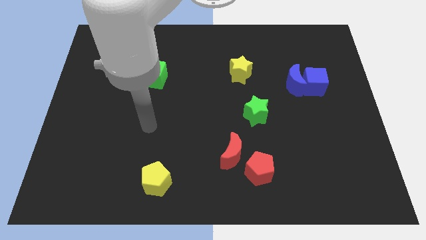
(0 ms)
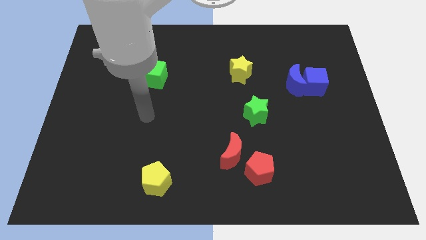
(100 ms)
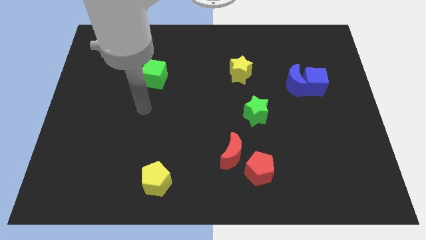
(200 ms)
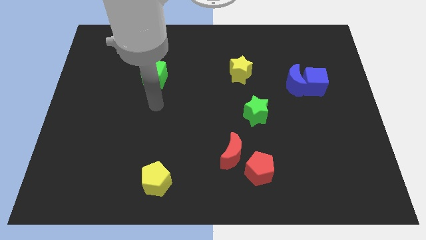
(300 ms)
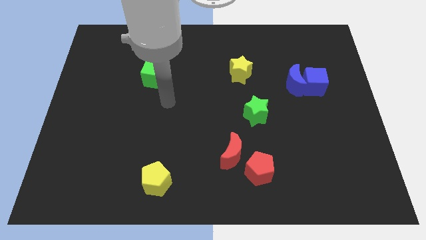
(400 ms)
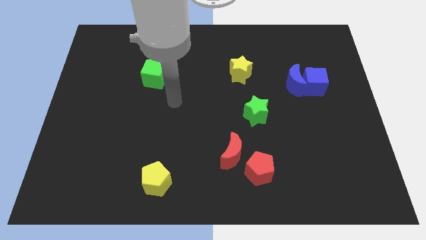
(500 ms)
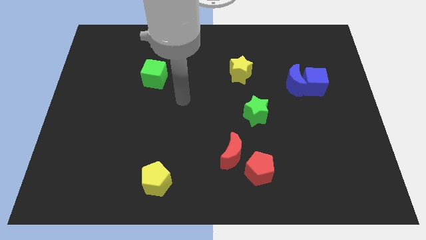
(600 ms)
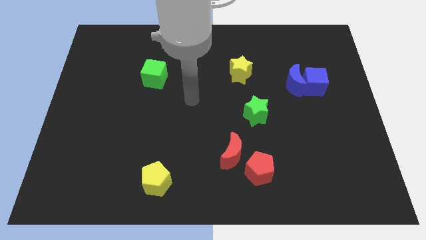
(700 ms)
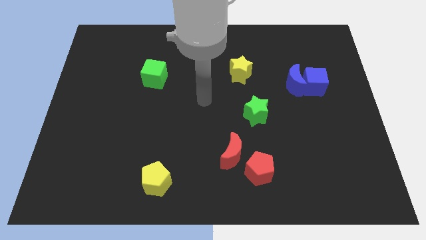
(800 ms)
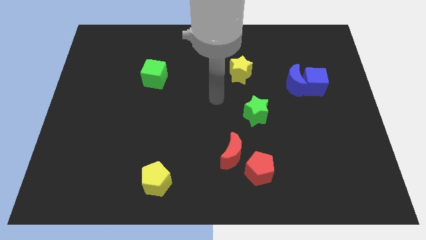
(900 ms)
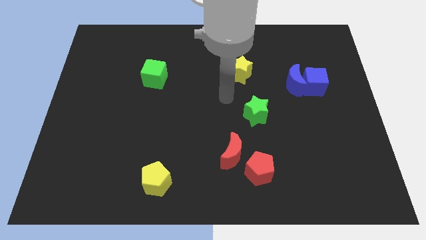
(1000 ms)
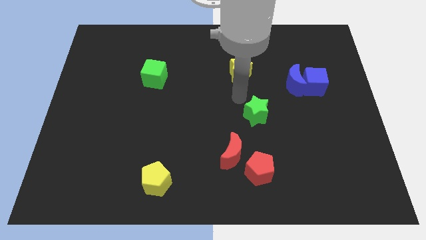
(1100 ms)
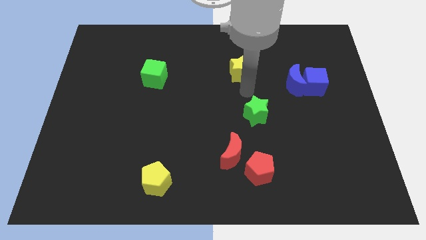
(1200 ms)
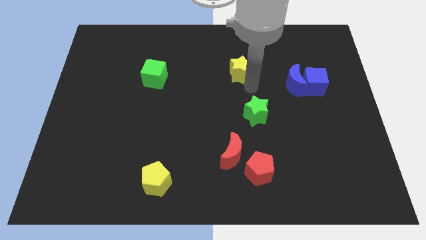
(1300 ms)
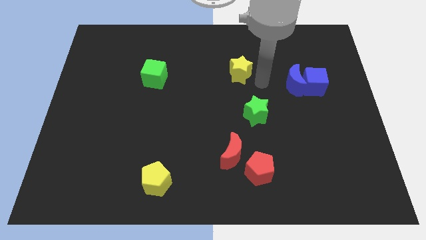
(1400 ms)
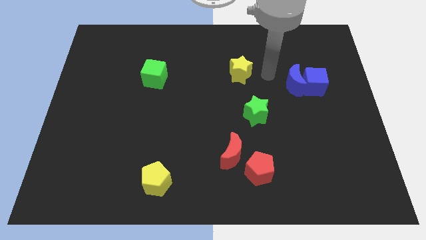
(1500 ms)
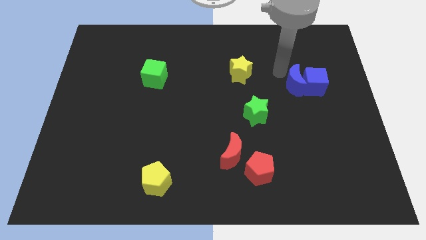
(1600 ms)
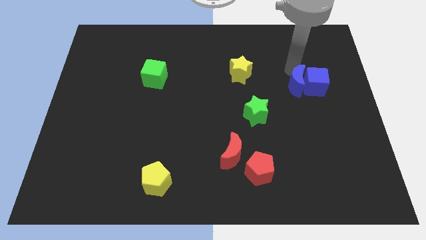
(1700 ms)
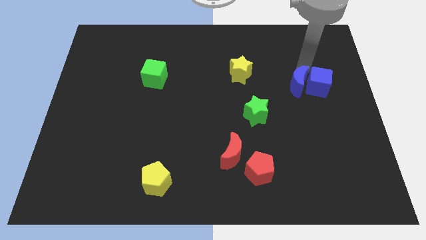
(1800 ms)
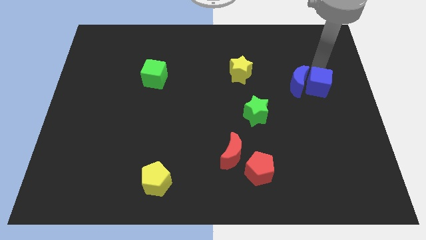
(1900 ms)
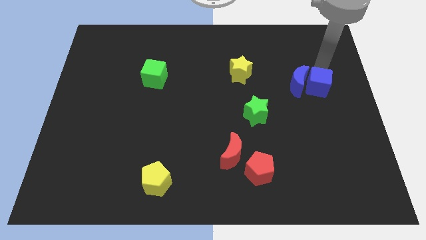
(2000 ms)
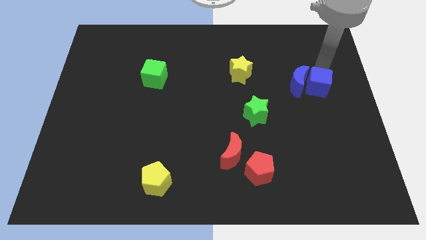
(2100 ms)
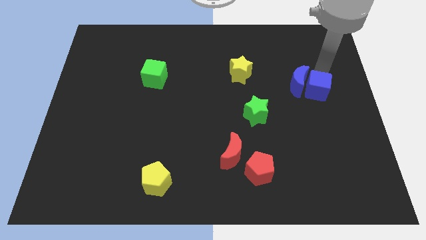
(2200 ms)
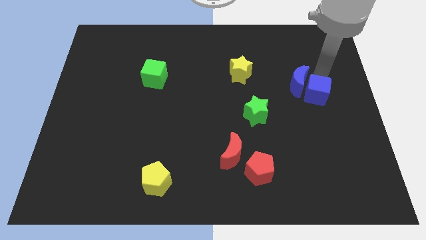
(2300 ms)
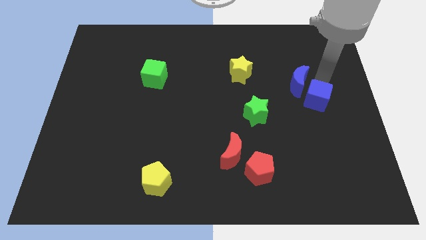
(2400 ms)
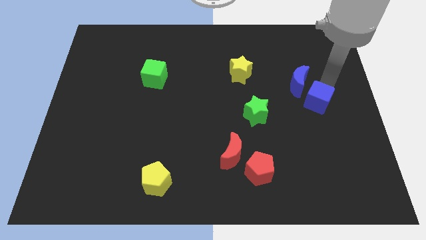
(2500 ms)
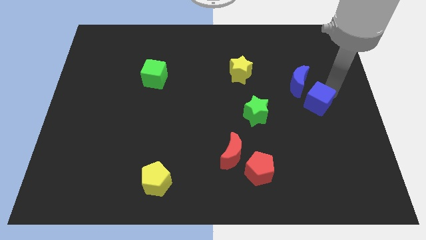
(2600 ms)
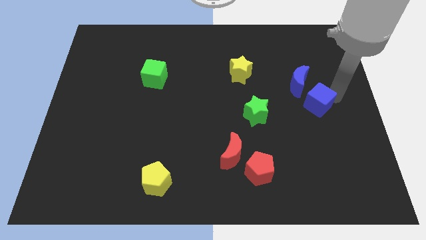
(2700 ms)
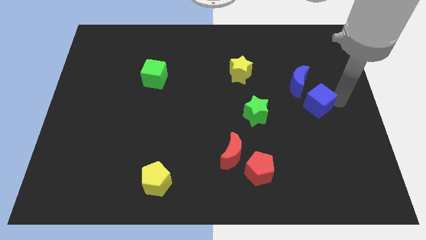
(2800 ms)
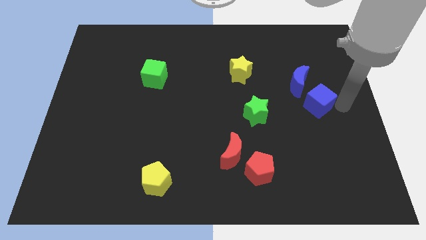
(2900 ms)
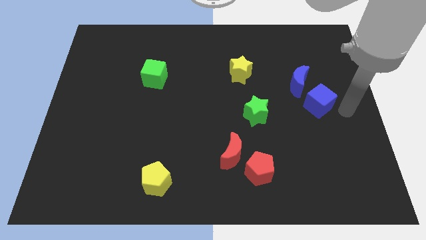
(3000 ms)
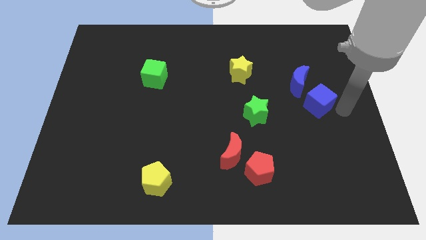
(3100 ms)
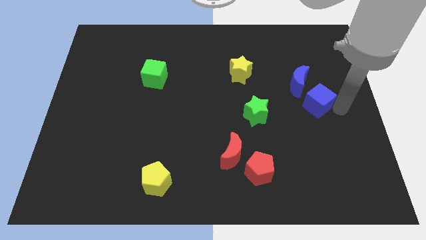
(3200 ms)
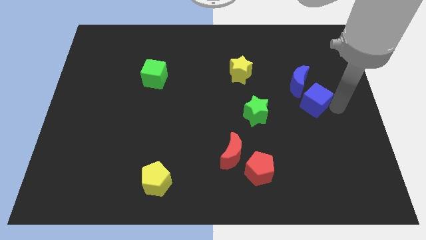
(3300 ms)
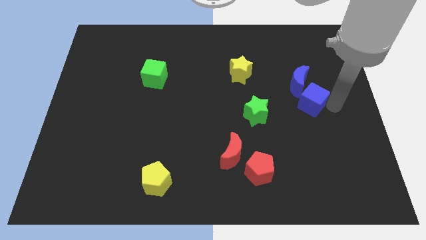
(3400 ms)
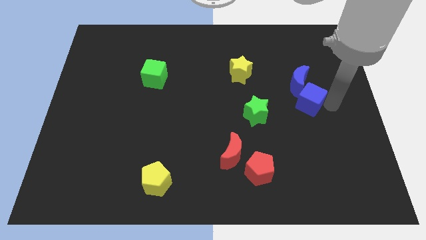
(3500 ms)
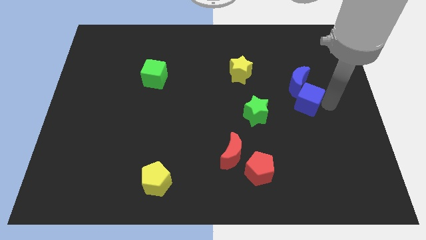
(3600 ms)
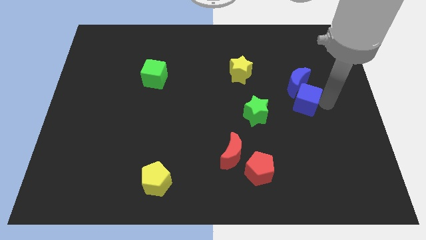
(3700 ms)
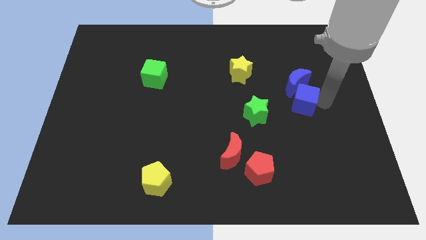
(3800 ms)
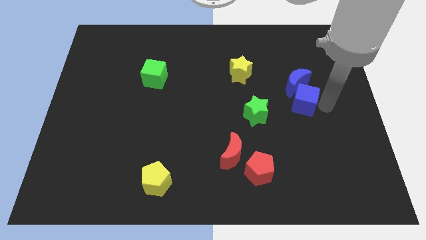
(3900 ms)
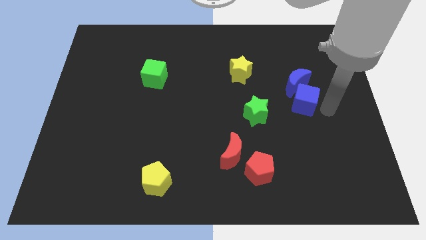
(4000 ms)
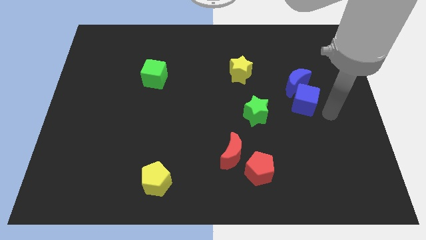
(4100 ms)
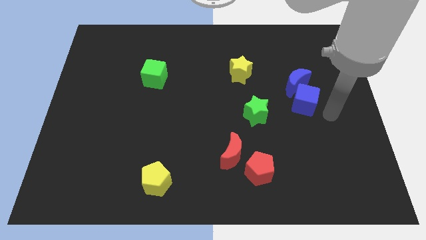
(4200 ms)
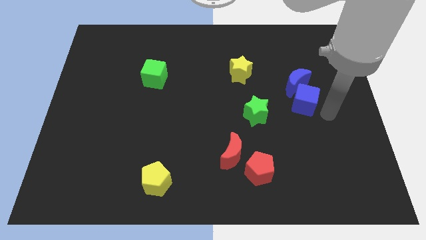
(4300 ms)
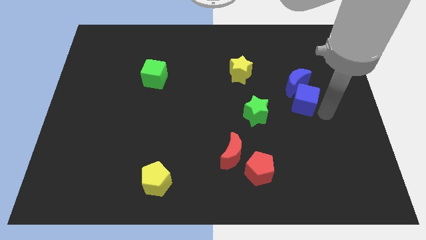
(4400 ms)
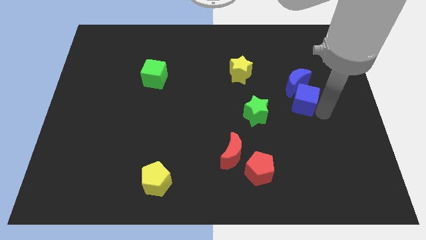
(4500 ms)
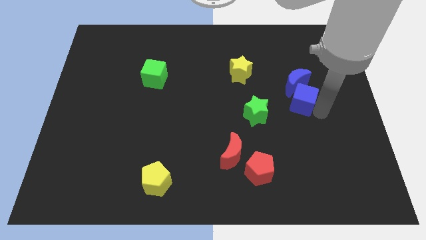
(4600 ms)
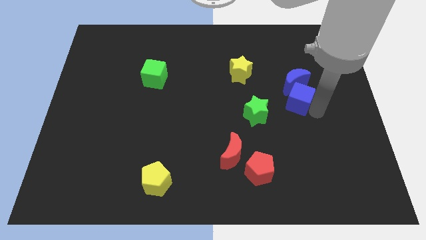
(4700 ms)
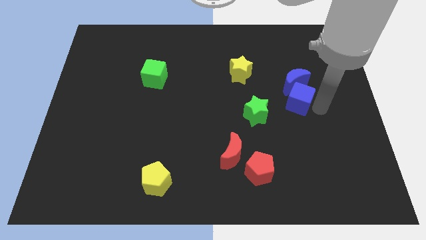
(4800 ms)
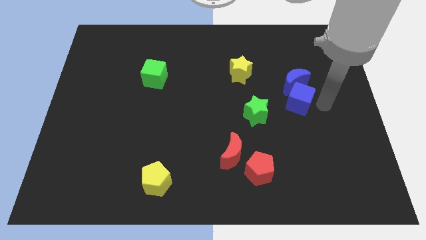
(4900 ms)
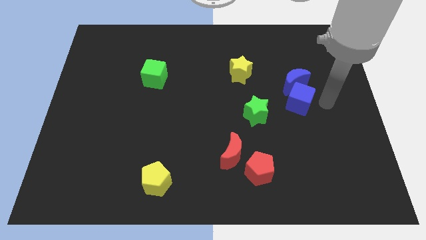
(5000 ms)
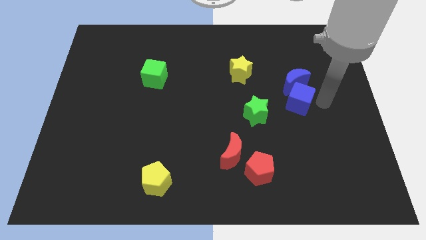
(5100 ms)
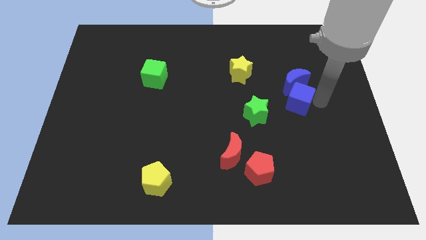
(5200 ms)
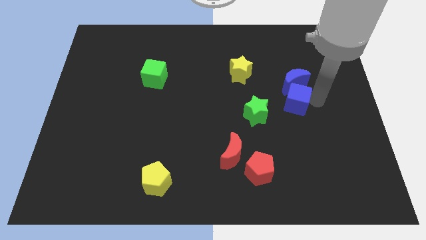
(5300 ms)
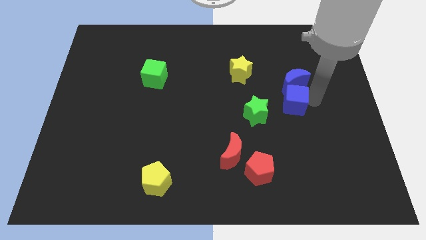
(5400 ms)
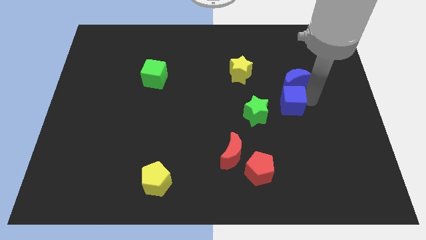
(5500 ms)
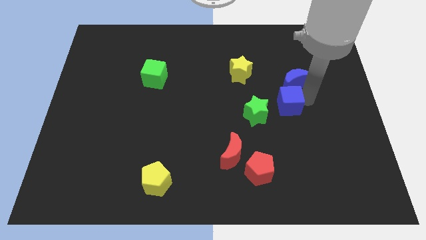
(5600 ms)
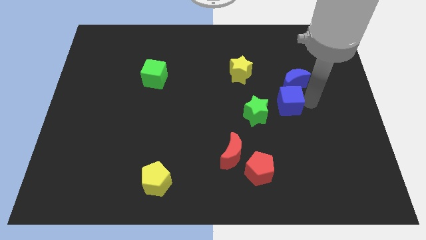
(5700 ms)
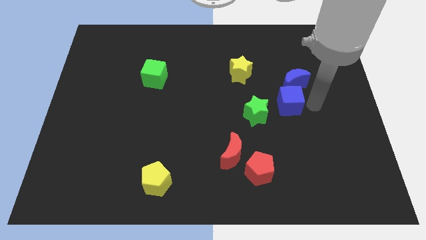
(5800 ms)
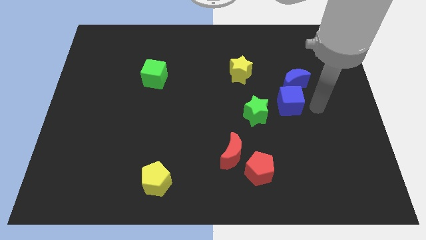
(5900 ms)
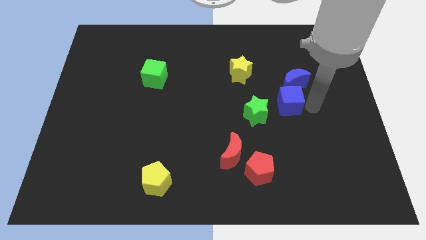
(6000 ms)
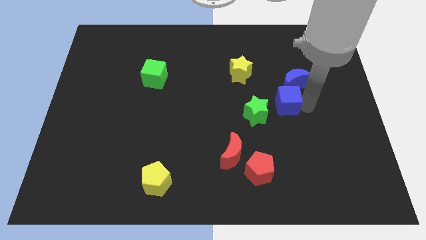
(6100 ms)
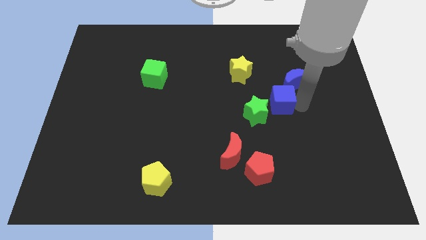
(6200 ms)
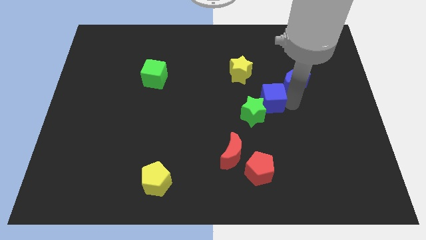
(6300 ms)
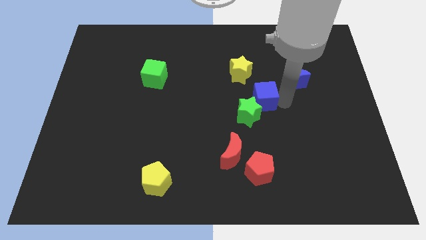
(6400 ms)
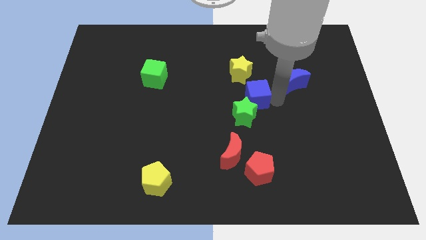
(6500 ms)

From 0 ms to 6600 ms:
move the blue cube below the yellow star
